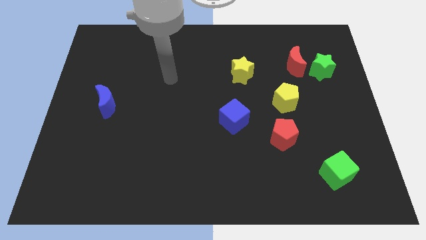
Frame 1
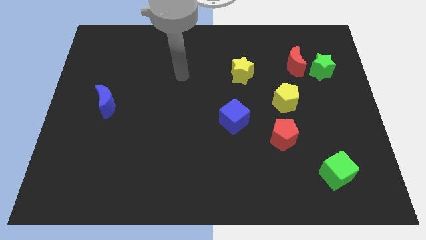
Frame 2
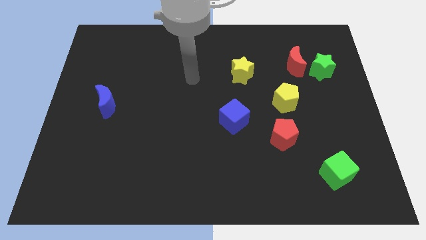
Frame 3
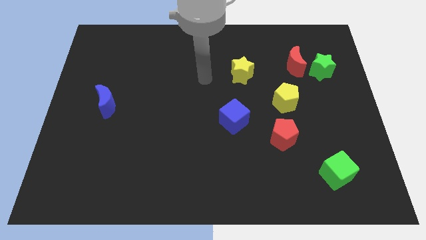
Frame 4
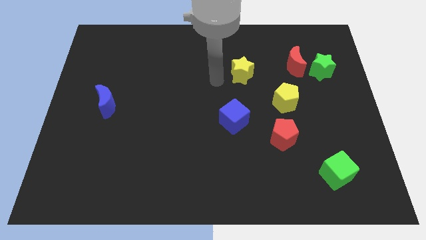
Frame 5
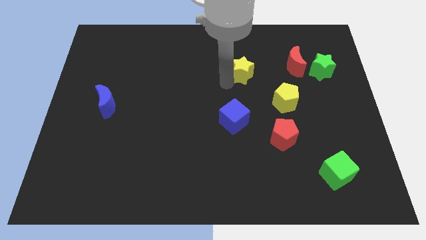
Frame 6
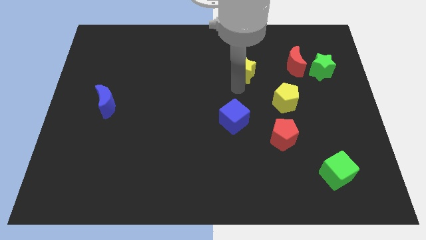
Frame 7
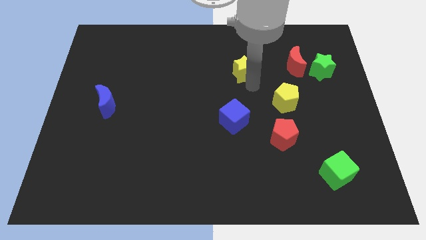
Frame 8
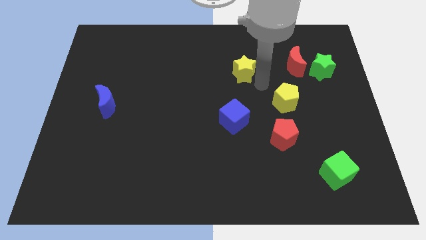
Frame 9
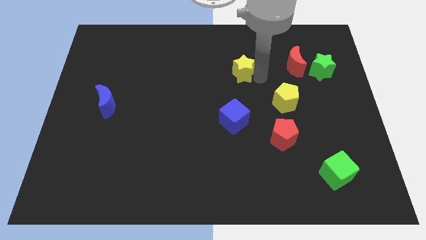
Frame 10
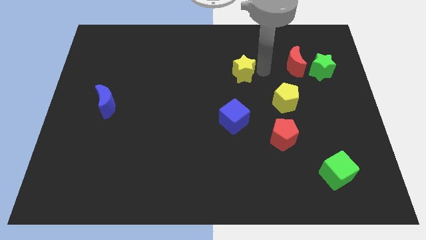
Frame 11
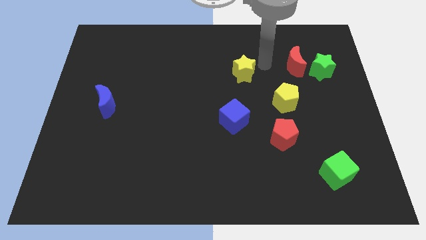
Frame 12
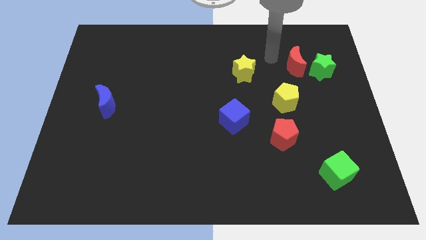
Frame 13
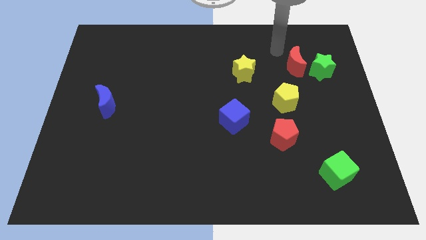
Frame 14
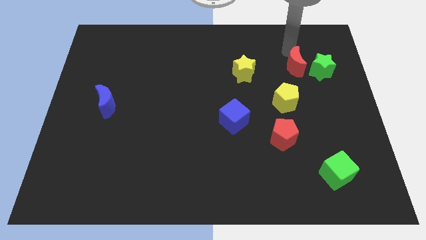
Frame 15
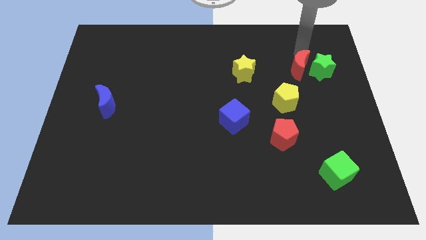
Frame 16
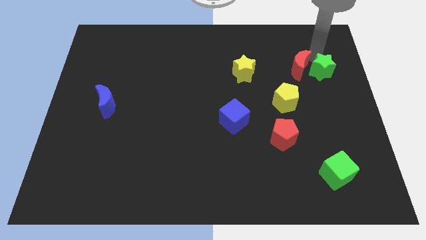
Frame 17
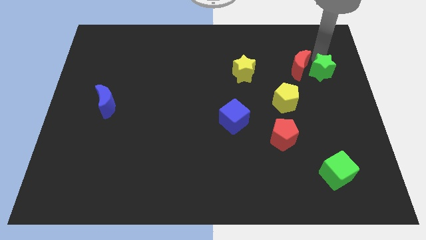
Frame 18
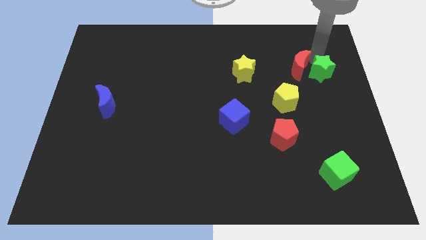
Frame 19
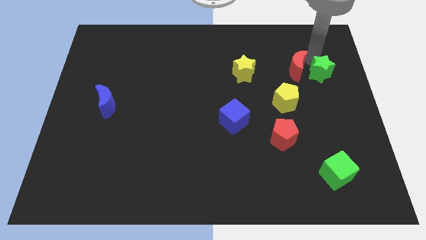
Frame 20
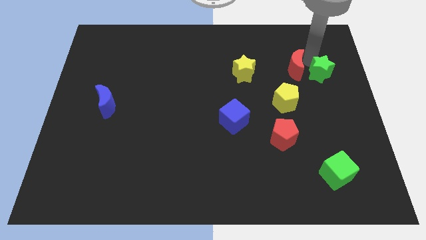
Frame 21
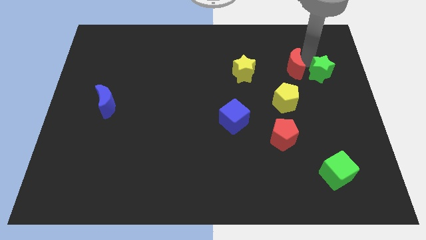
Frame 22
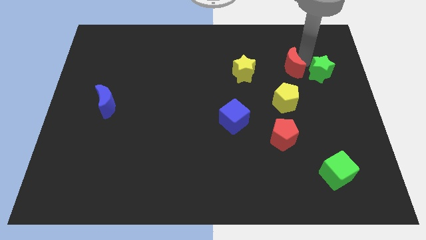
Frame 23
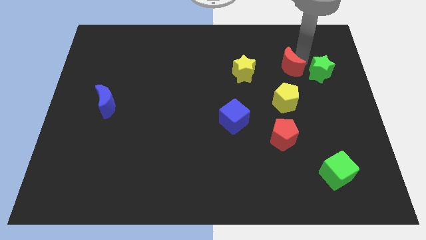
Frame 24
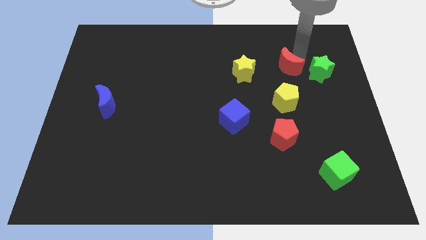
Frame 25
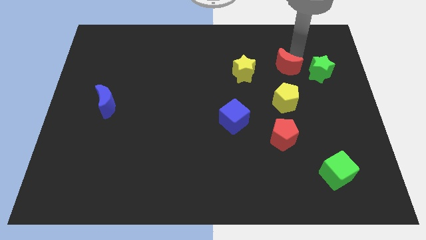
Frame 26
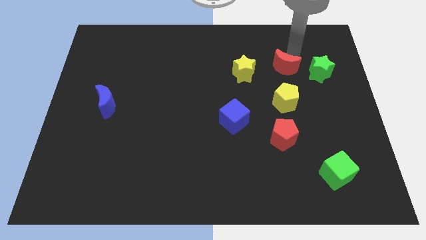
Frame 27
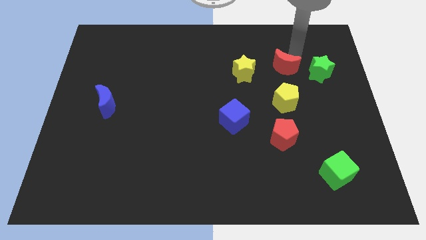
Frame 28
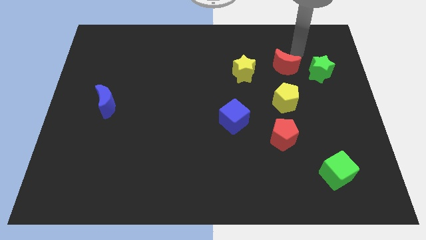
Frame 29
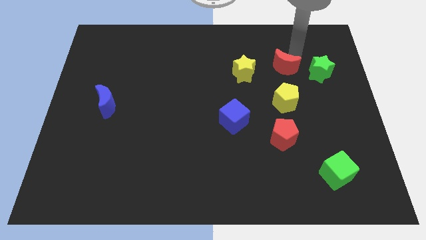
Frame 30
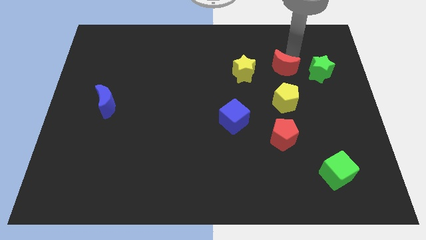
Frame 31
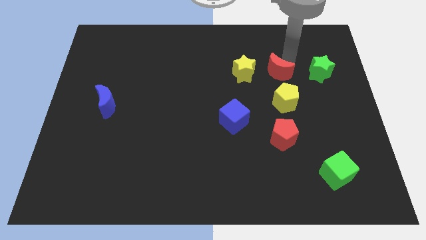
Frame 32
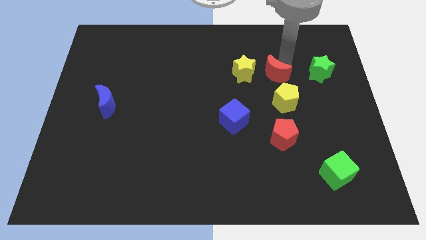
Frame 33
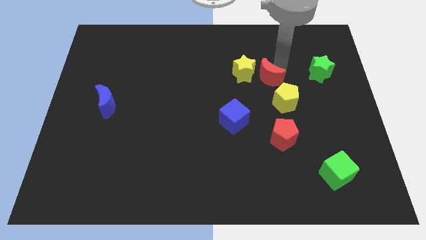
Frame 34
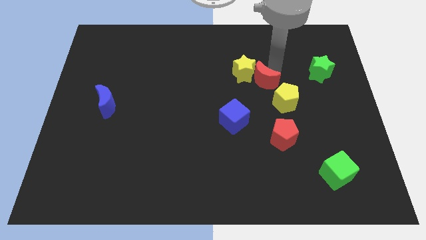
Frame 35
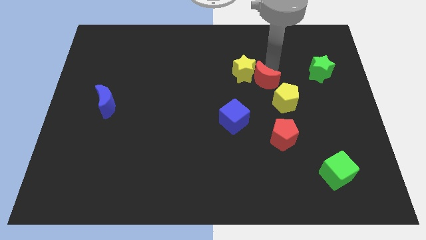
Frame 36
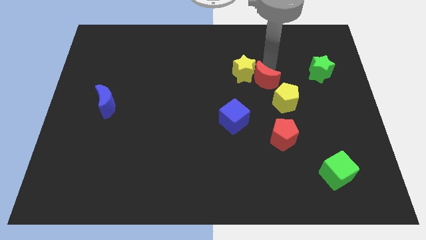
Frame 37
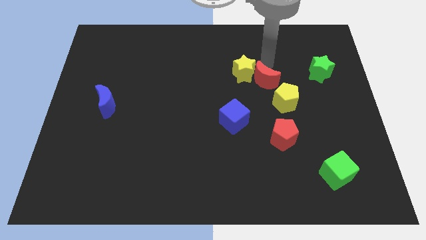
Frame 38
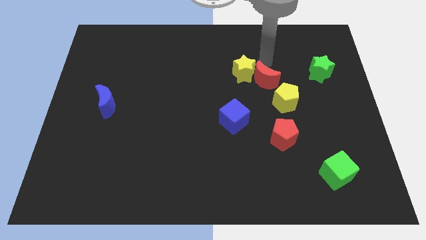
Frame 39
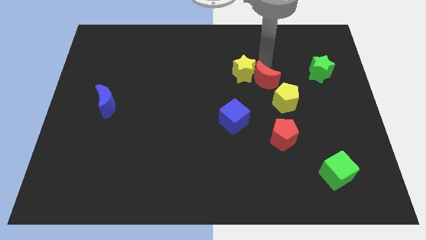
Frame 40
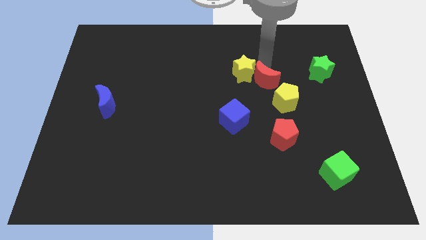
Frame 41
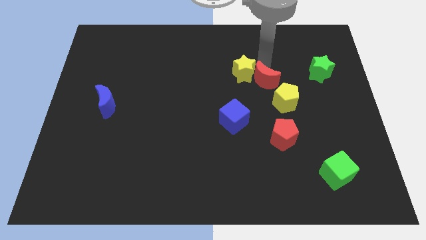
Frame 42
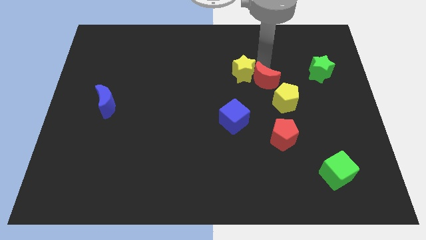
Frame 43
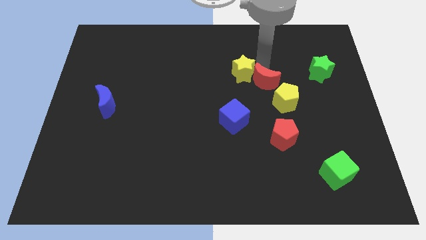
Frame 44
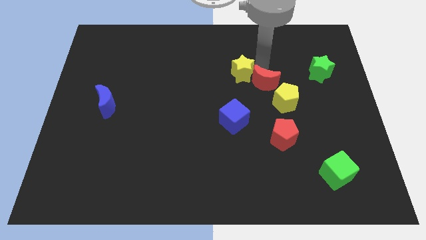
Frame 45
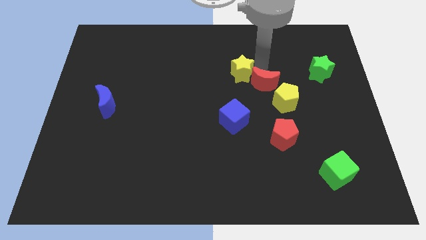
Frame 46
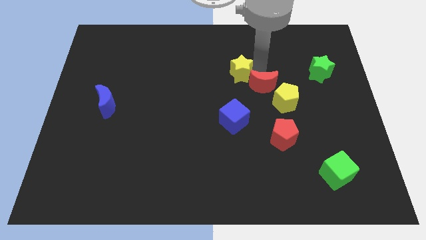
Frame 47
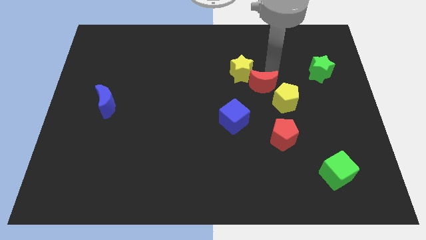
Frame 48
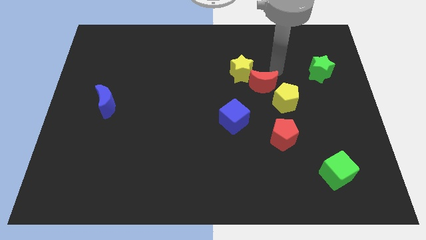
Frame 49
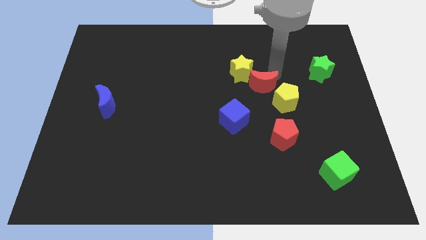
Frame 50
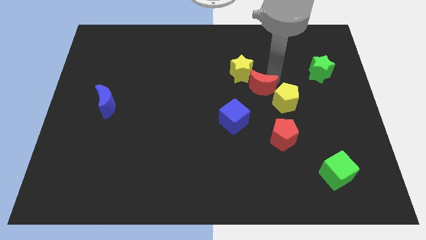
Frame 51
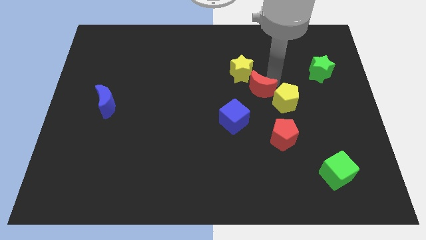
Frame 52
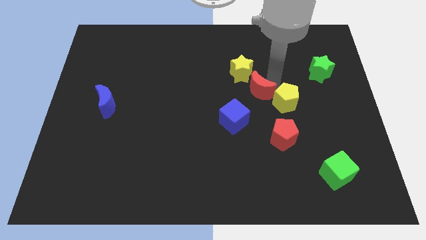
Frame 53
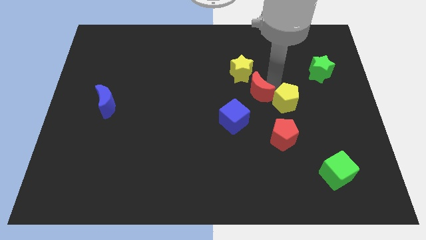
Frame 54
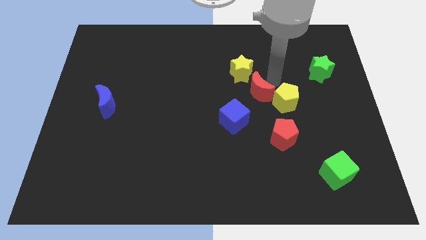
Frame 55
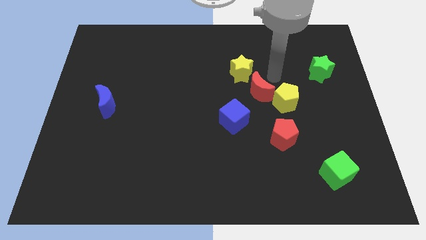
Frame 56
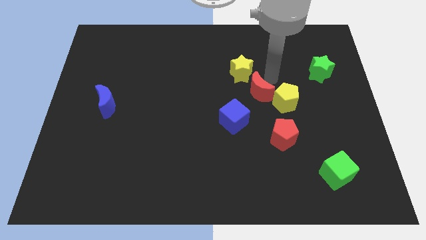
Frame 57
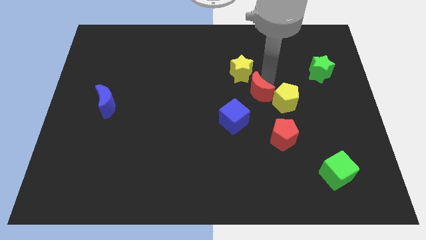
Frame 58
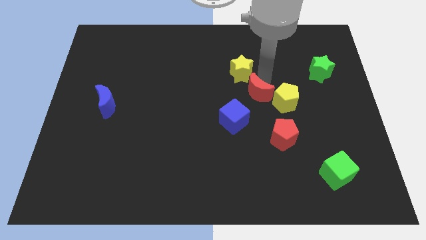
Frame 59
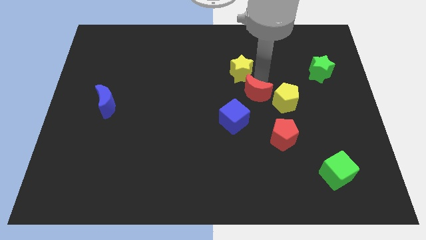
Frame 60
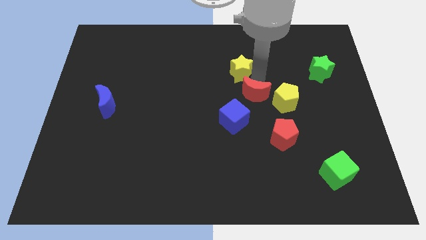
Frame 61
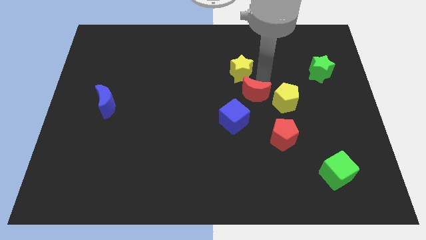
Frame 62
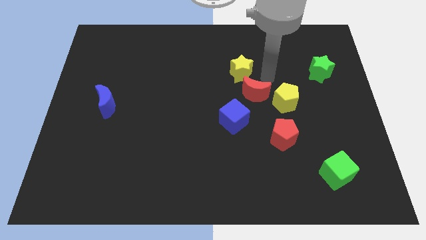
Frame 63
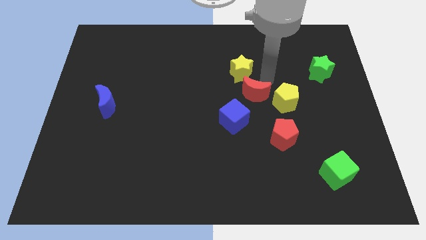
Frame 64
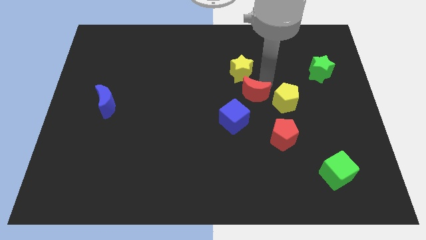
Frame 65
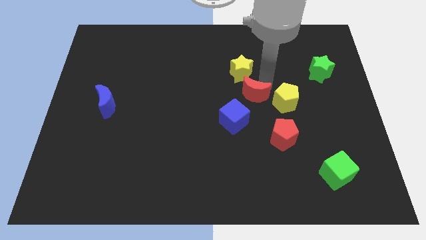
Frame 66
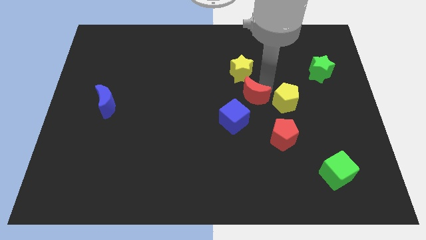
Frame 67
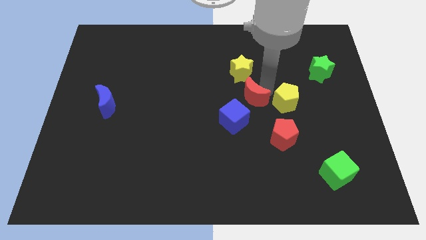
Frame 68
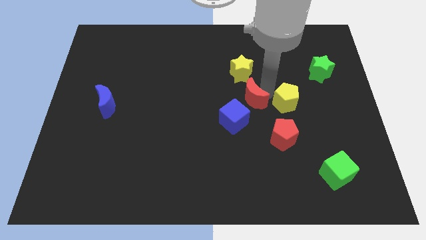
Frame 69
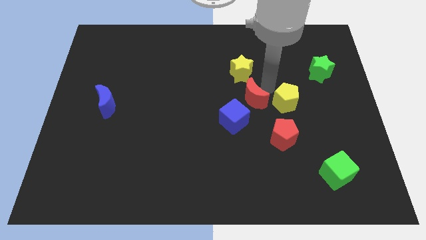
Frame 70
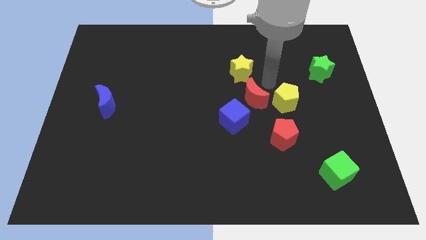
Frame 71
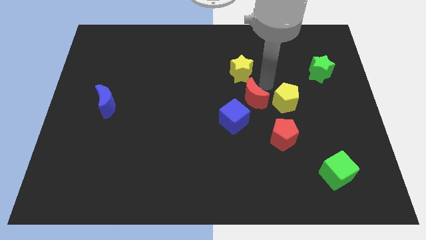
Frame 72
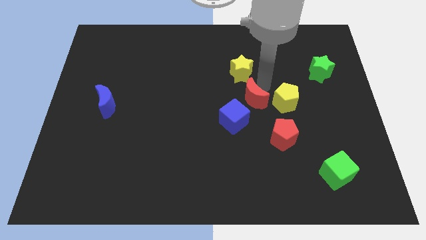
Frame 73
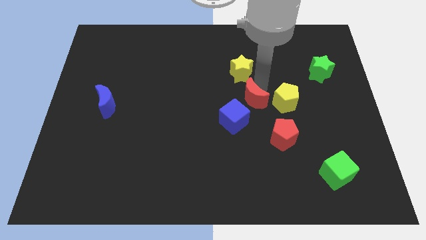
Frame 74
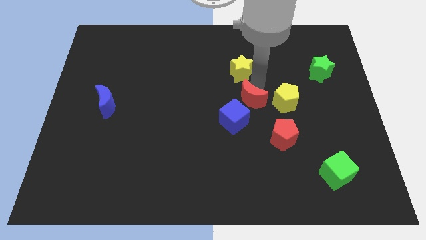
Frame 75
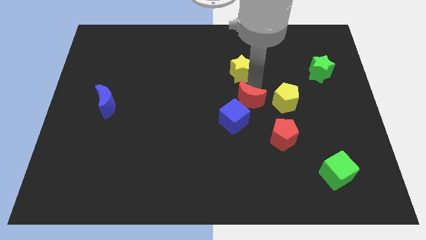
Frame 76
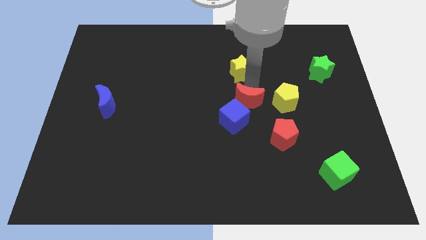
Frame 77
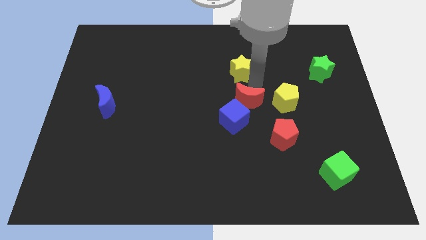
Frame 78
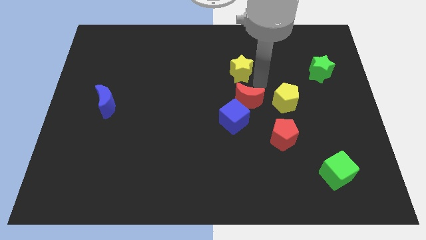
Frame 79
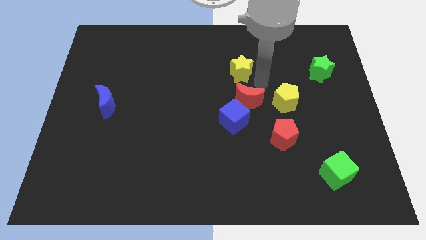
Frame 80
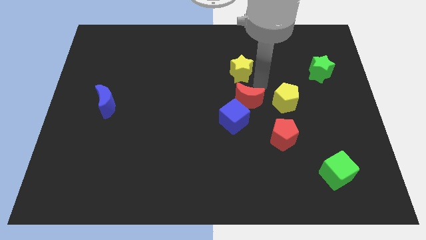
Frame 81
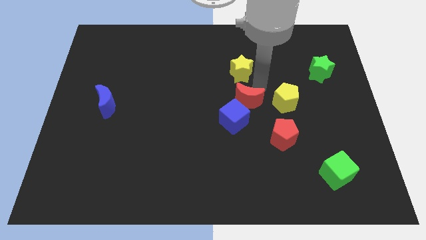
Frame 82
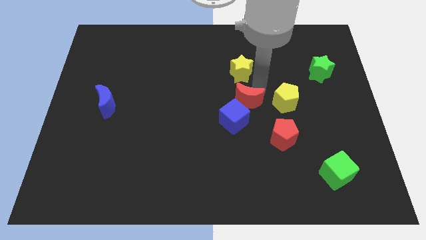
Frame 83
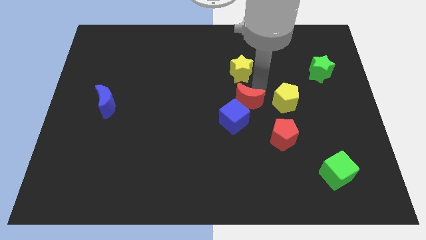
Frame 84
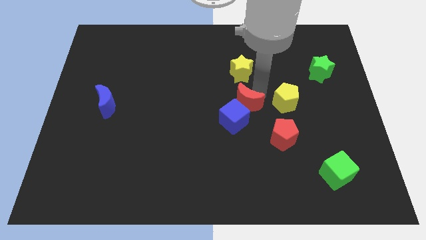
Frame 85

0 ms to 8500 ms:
push the red moon to the blue cube
